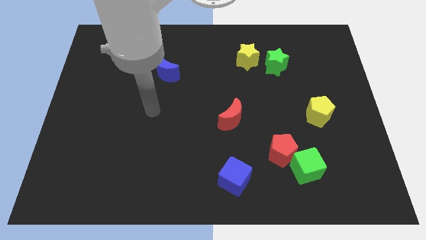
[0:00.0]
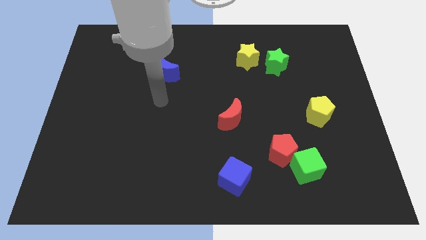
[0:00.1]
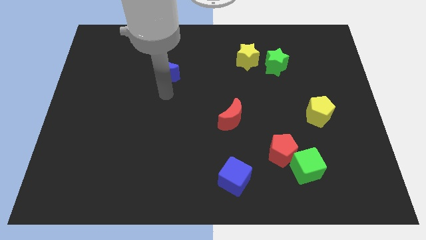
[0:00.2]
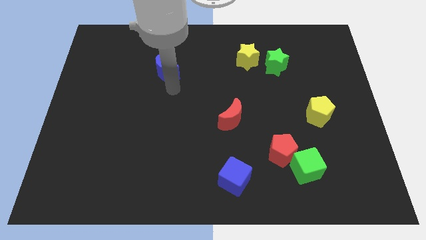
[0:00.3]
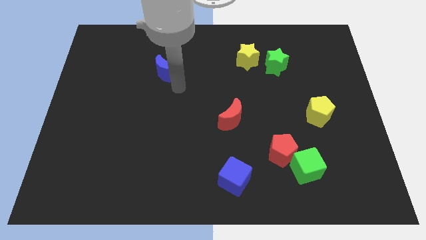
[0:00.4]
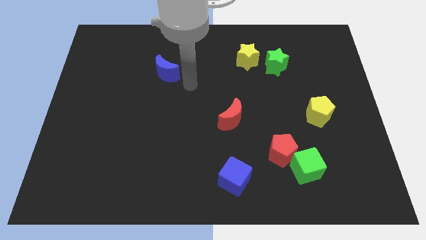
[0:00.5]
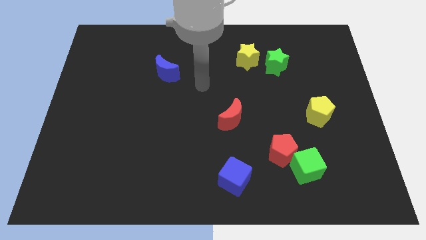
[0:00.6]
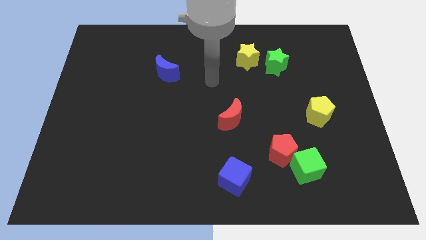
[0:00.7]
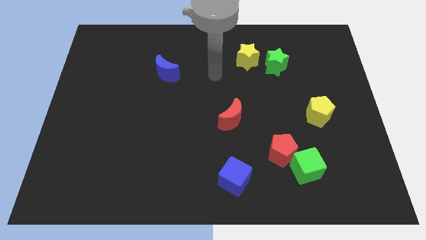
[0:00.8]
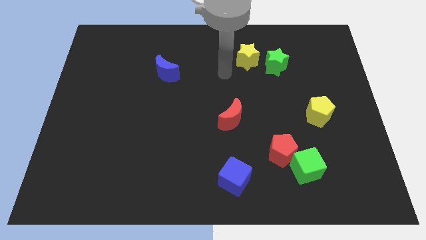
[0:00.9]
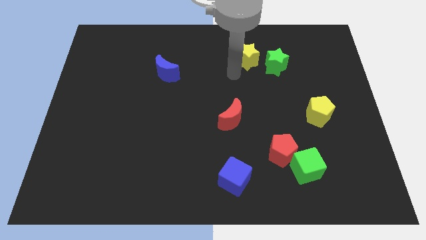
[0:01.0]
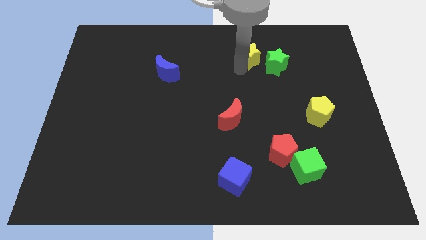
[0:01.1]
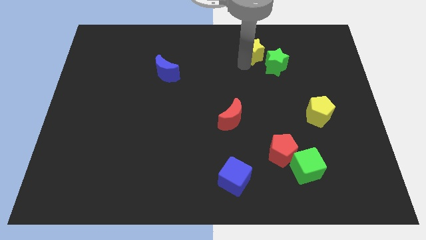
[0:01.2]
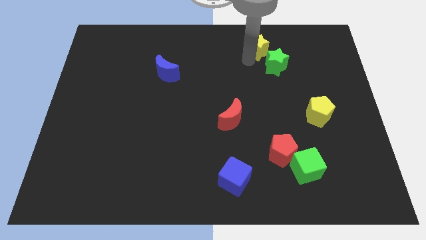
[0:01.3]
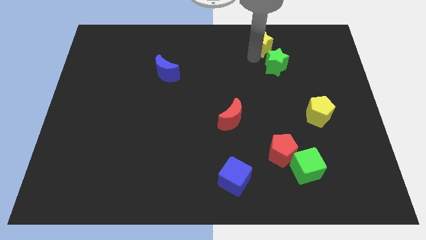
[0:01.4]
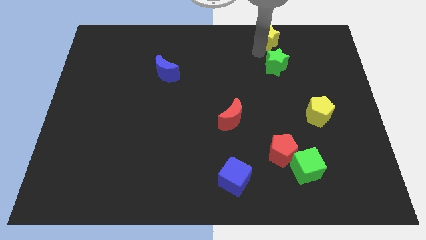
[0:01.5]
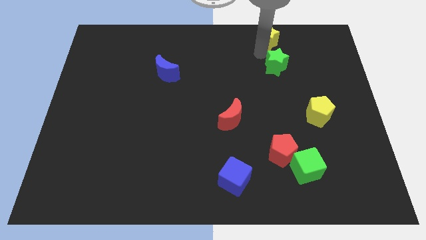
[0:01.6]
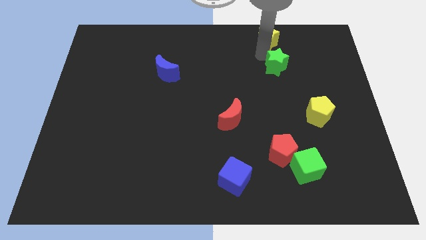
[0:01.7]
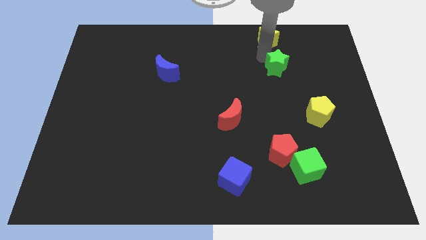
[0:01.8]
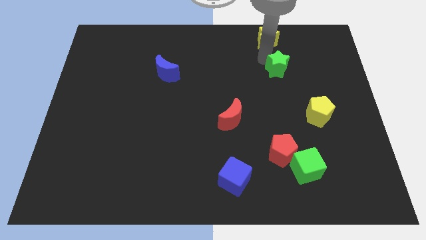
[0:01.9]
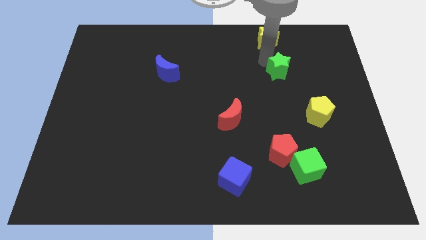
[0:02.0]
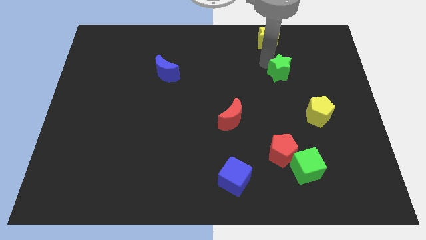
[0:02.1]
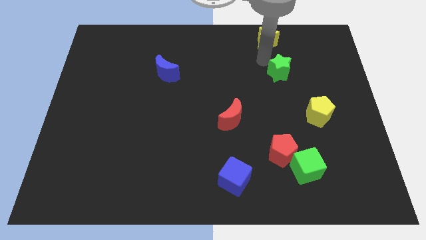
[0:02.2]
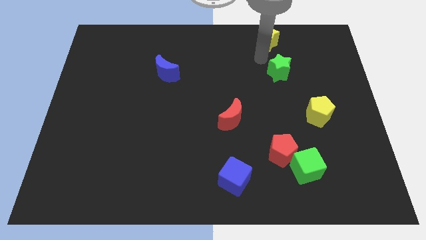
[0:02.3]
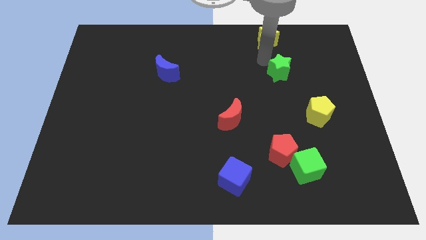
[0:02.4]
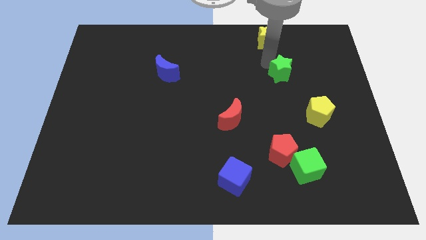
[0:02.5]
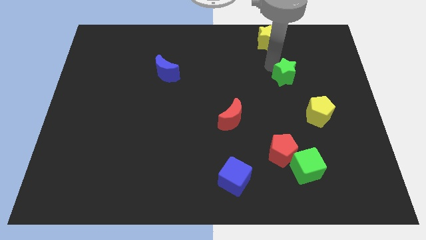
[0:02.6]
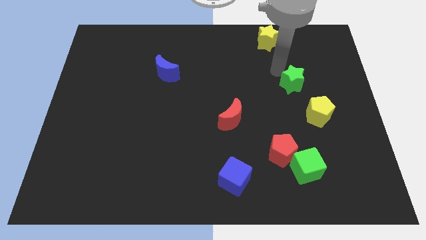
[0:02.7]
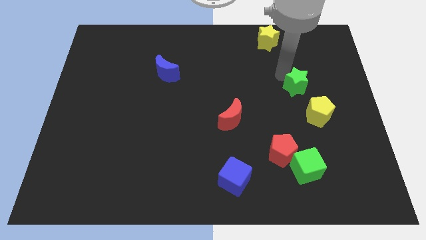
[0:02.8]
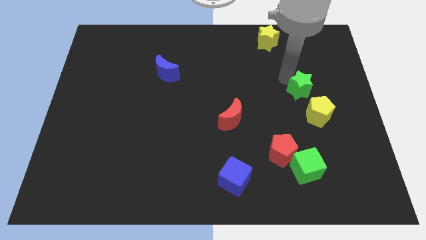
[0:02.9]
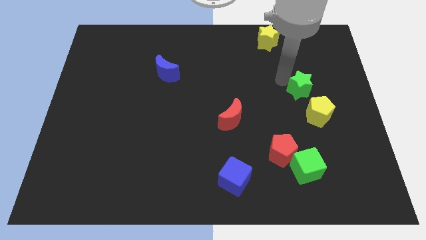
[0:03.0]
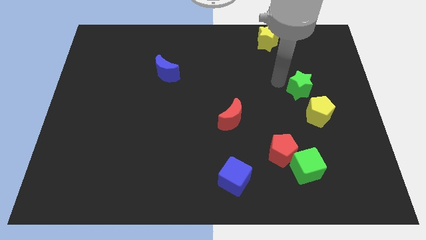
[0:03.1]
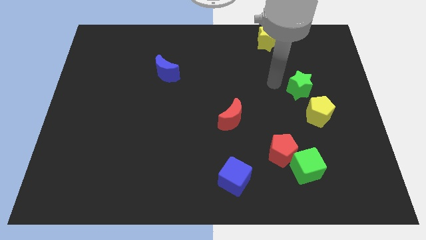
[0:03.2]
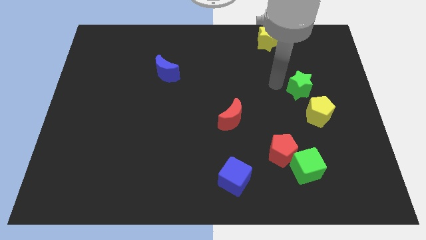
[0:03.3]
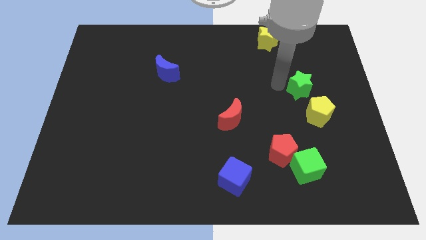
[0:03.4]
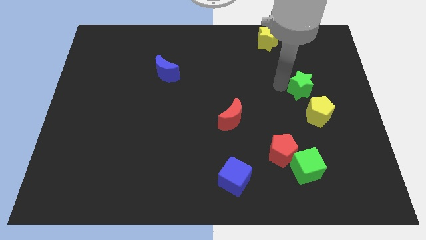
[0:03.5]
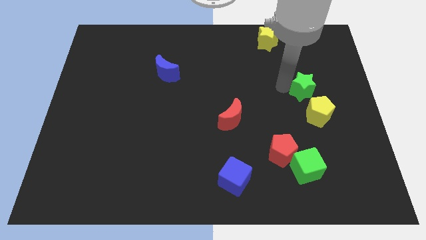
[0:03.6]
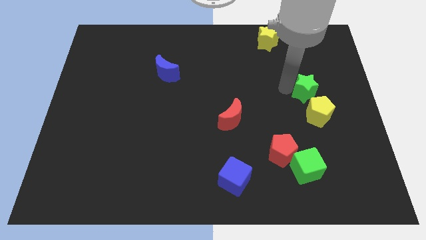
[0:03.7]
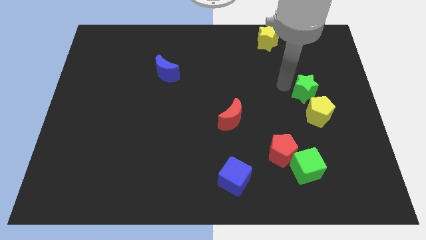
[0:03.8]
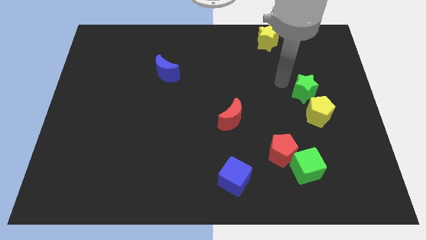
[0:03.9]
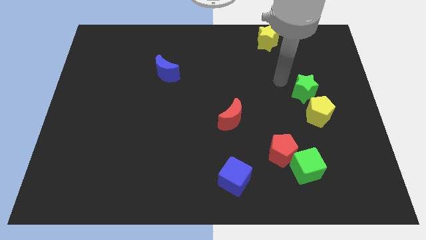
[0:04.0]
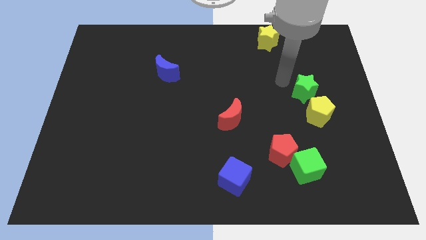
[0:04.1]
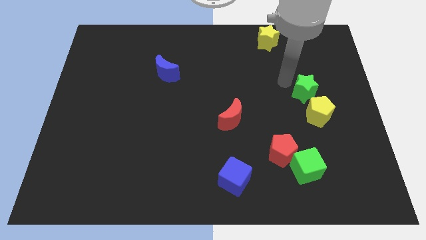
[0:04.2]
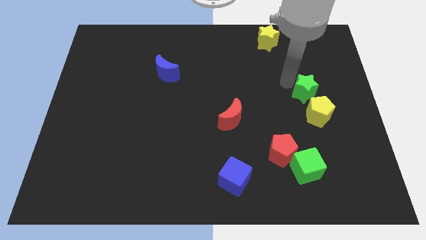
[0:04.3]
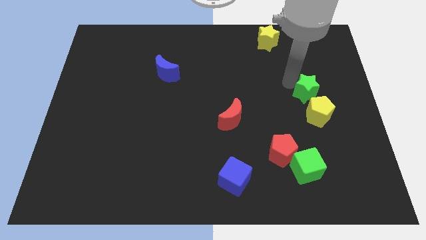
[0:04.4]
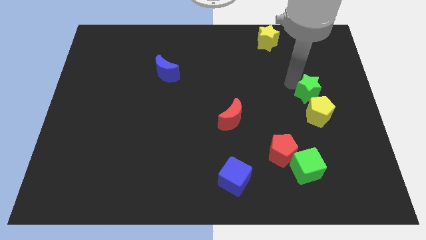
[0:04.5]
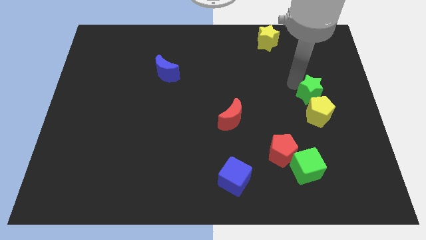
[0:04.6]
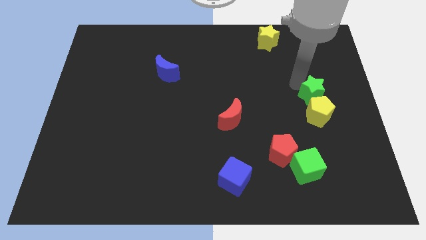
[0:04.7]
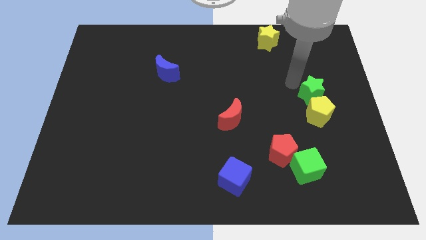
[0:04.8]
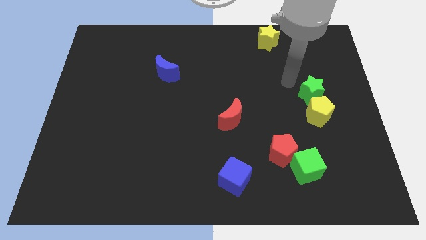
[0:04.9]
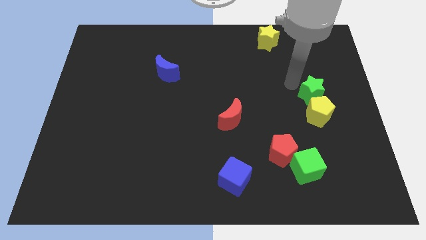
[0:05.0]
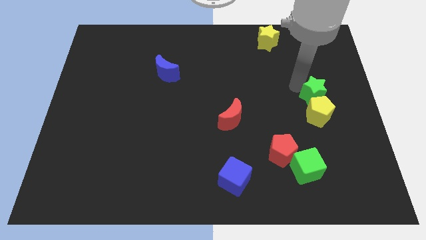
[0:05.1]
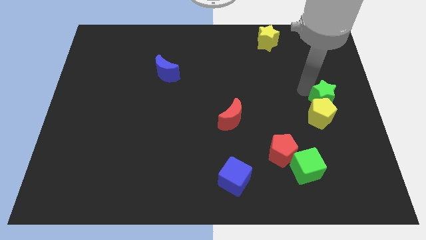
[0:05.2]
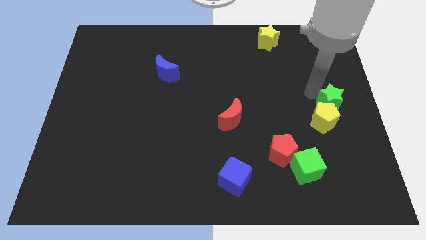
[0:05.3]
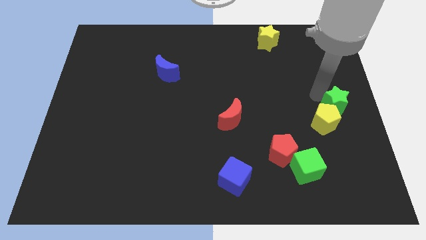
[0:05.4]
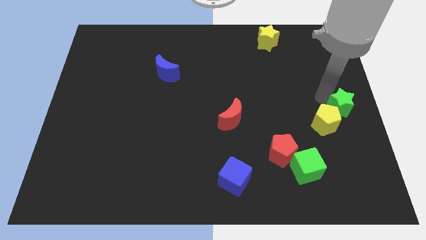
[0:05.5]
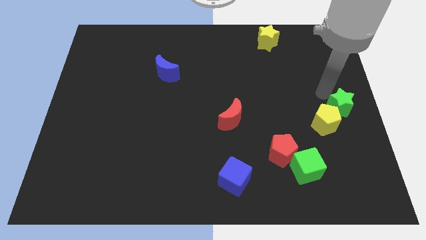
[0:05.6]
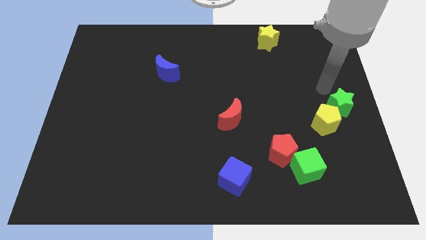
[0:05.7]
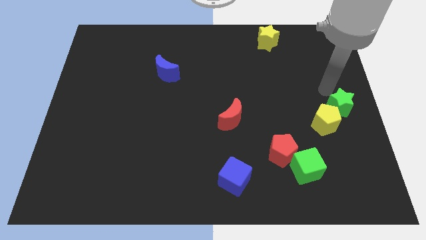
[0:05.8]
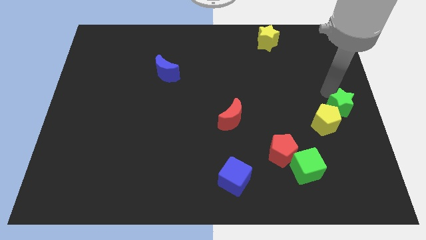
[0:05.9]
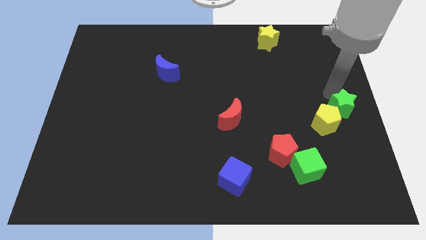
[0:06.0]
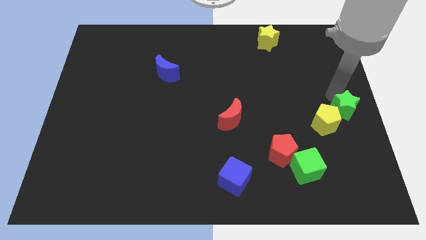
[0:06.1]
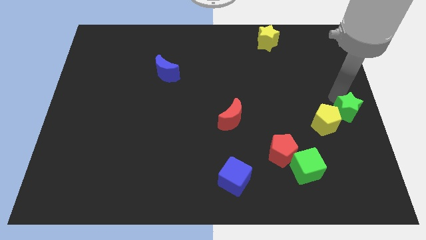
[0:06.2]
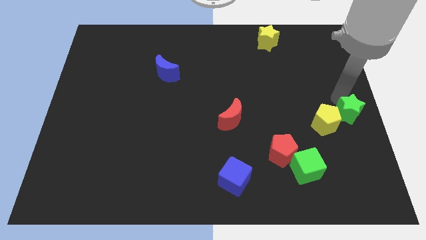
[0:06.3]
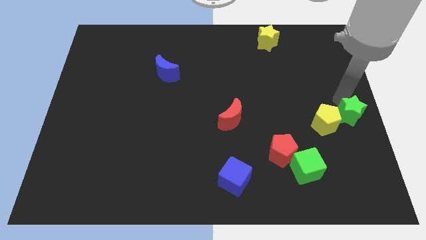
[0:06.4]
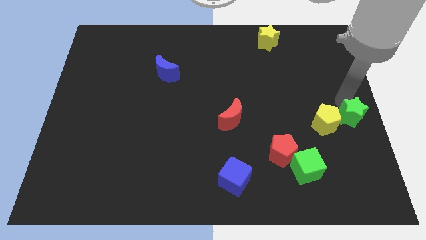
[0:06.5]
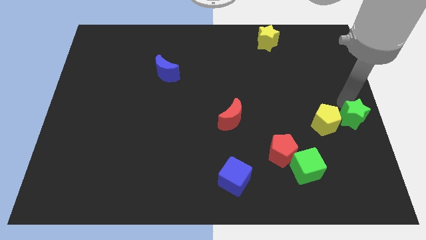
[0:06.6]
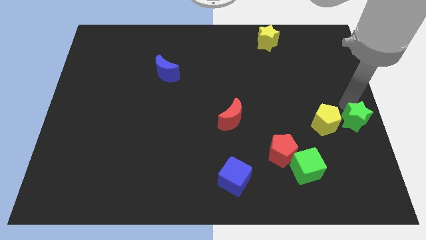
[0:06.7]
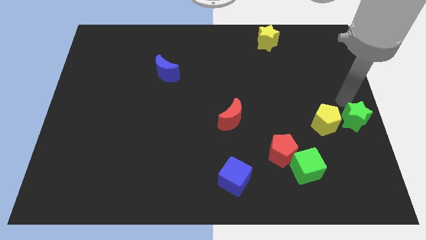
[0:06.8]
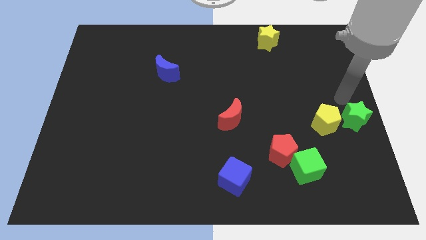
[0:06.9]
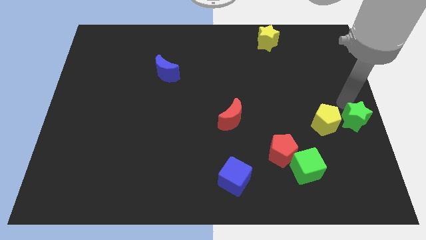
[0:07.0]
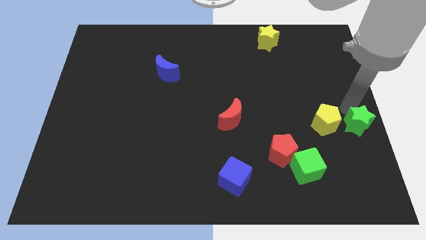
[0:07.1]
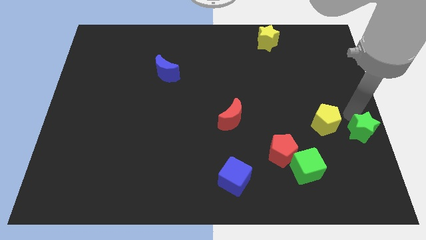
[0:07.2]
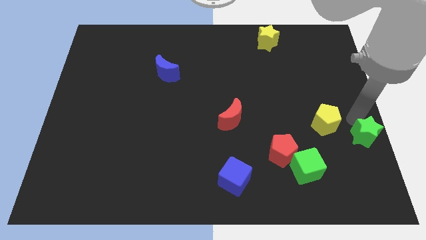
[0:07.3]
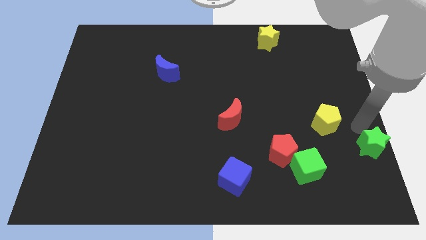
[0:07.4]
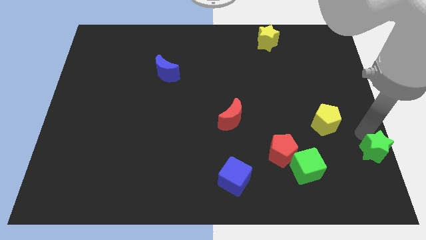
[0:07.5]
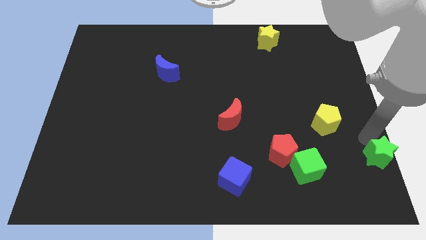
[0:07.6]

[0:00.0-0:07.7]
slide the green star to the lower right corner
